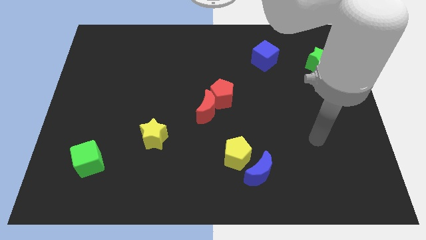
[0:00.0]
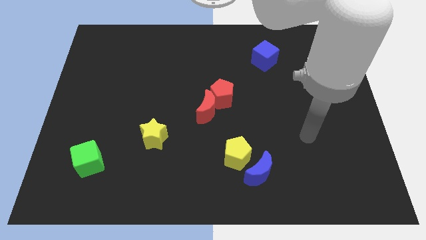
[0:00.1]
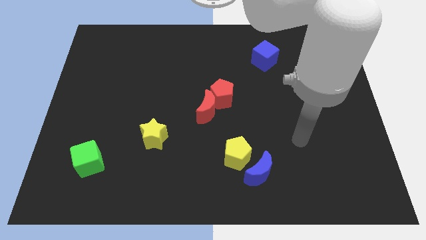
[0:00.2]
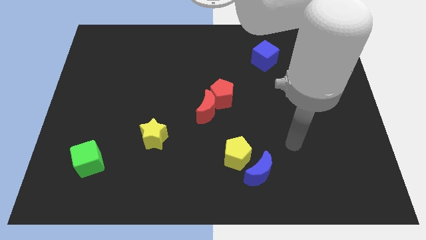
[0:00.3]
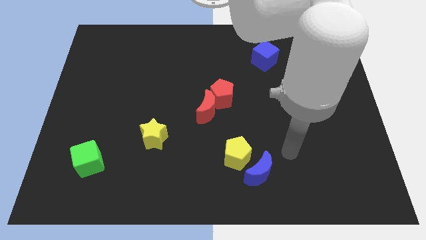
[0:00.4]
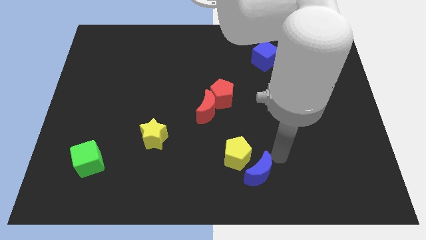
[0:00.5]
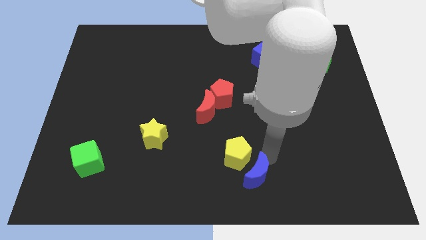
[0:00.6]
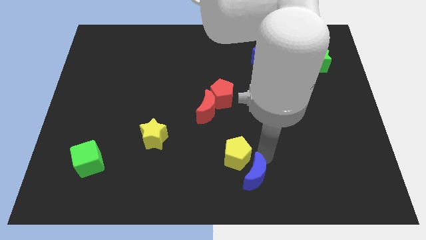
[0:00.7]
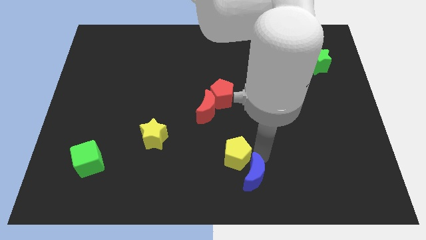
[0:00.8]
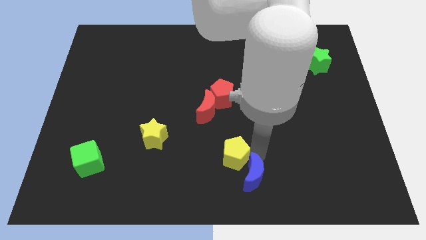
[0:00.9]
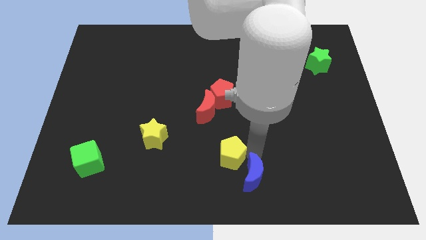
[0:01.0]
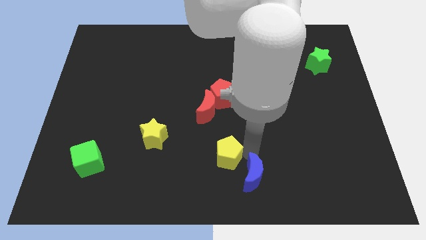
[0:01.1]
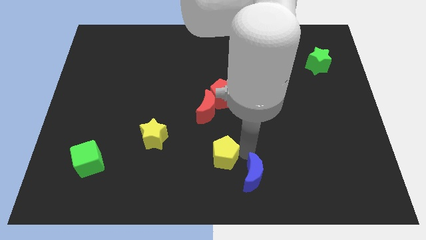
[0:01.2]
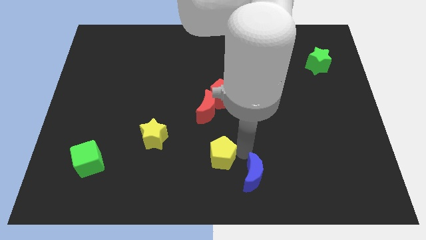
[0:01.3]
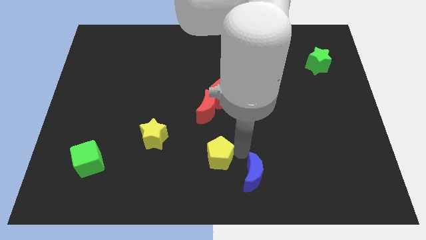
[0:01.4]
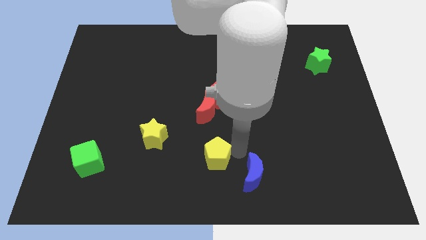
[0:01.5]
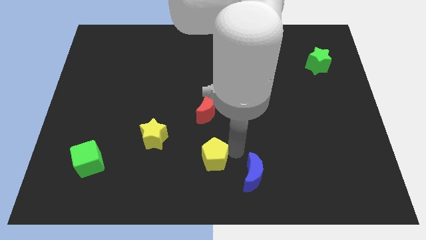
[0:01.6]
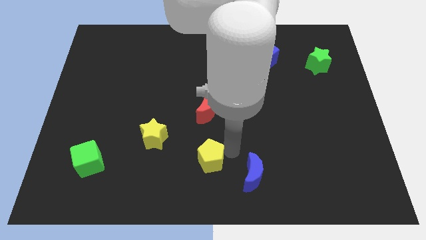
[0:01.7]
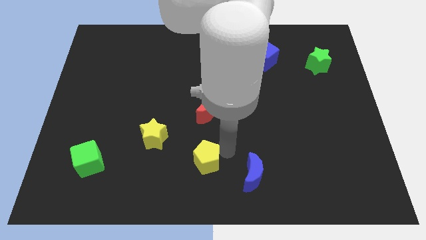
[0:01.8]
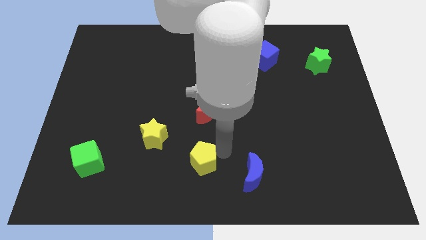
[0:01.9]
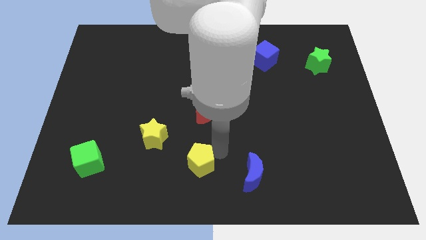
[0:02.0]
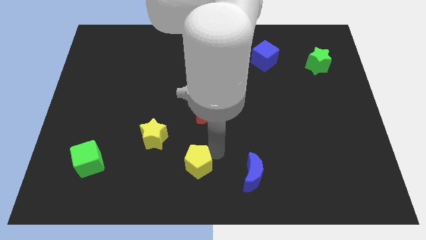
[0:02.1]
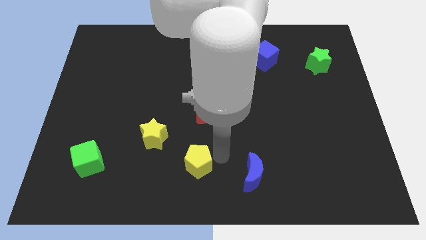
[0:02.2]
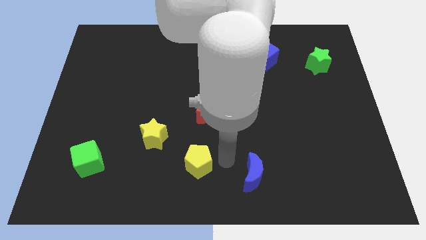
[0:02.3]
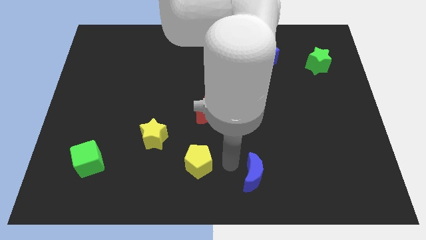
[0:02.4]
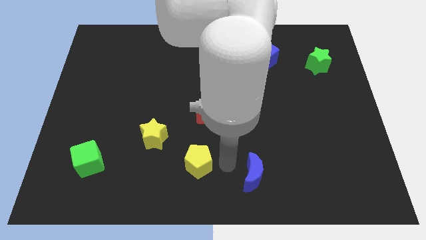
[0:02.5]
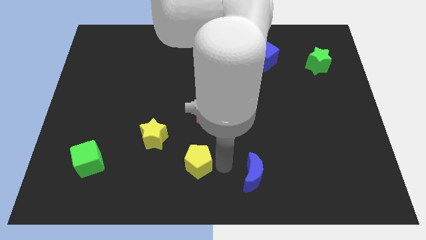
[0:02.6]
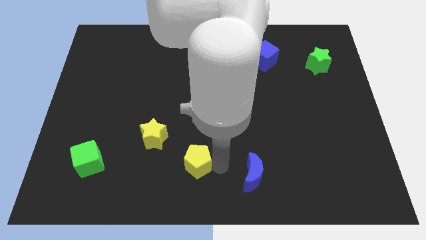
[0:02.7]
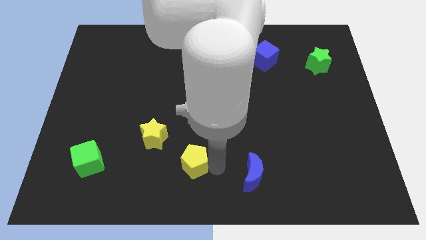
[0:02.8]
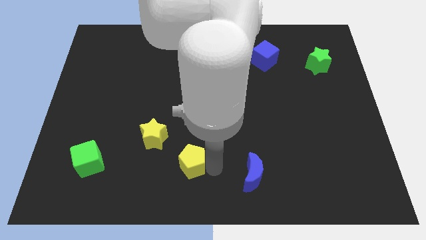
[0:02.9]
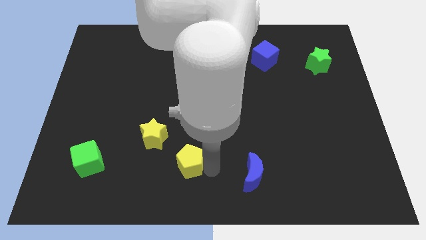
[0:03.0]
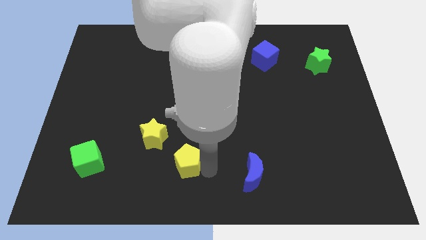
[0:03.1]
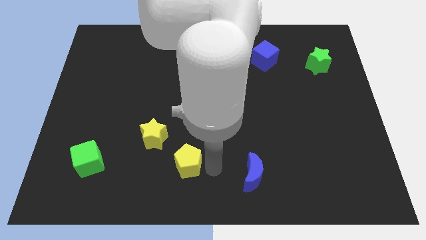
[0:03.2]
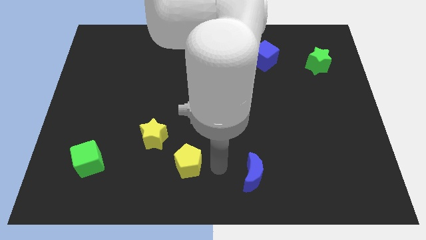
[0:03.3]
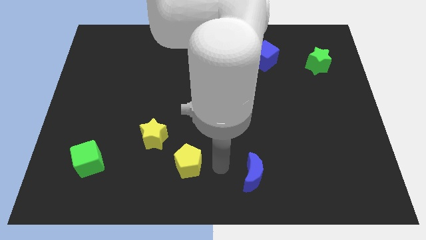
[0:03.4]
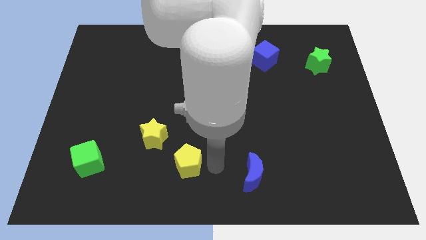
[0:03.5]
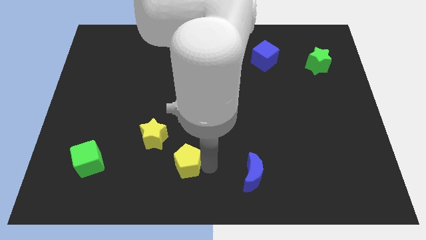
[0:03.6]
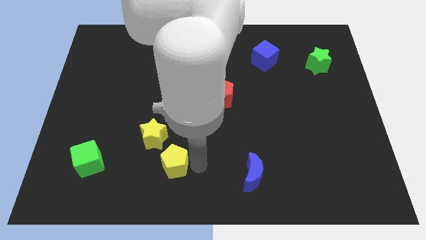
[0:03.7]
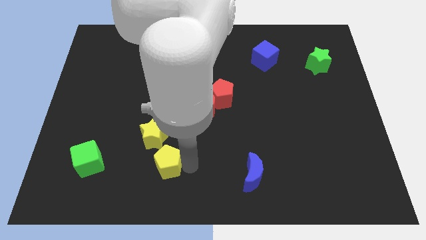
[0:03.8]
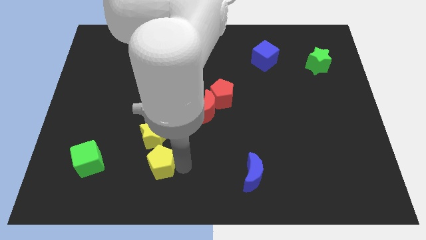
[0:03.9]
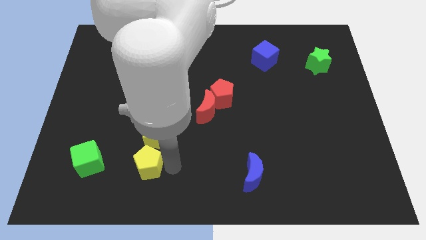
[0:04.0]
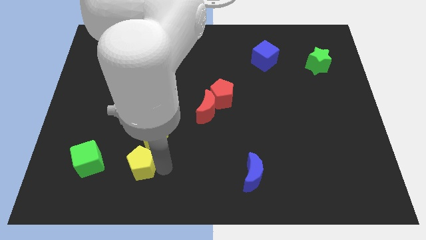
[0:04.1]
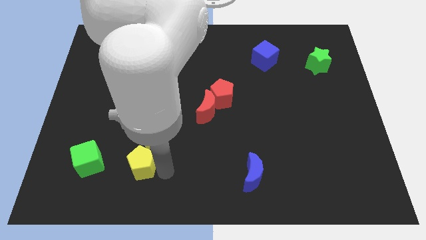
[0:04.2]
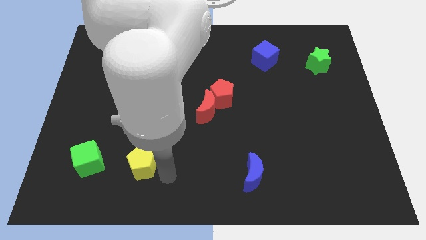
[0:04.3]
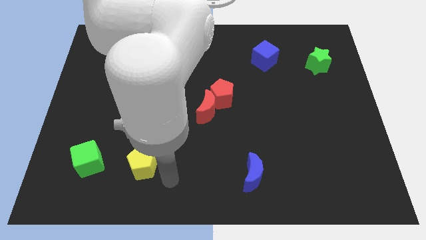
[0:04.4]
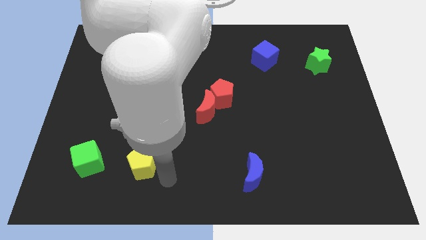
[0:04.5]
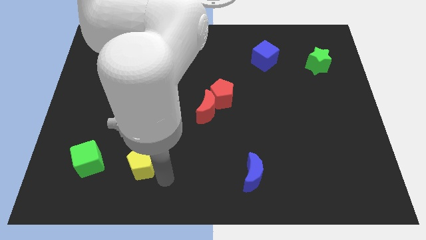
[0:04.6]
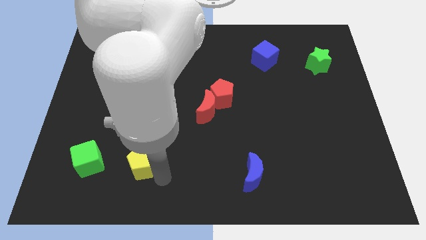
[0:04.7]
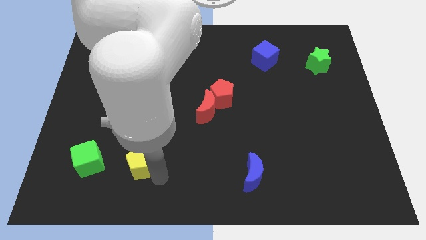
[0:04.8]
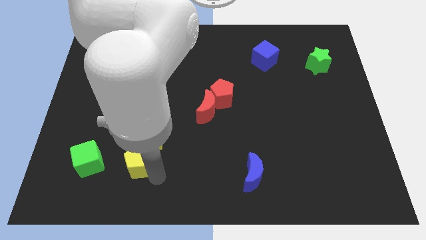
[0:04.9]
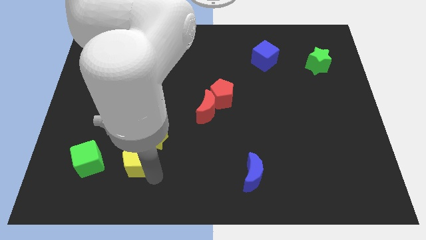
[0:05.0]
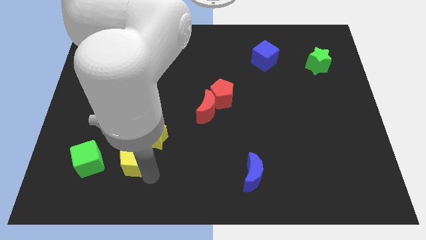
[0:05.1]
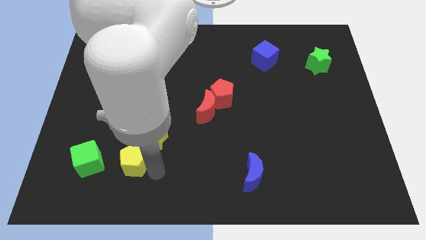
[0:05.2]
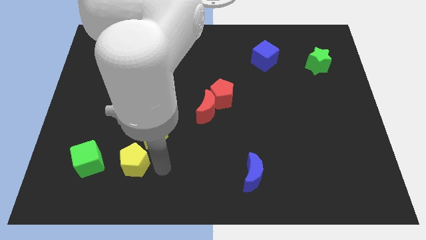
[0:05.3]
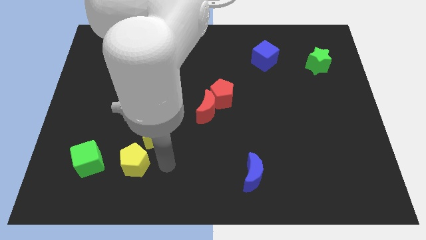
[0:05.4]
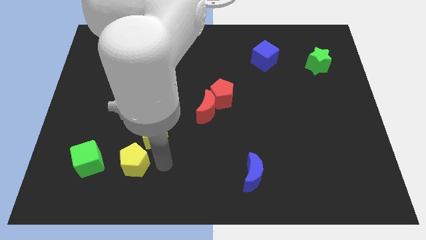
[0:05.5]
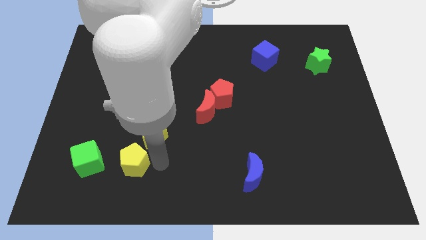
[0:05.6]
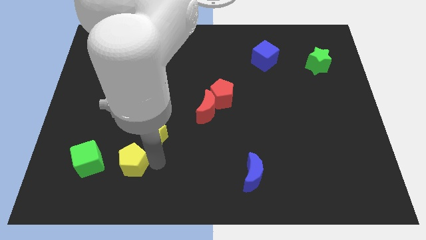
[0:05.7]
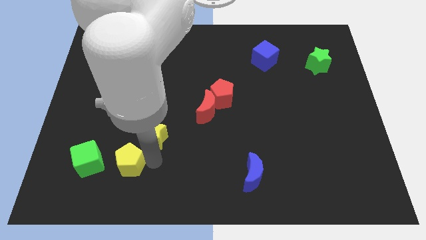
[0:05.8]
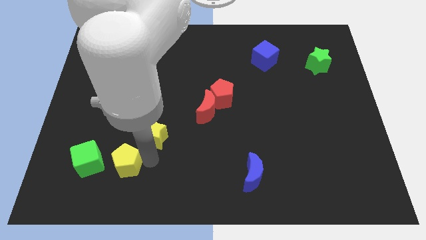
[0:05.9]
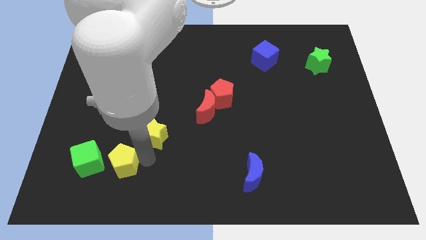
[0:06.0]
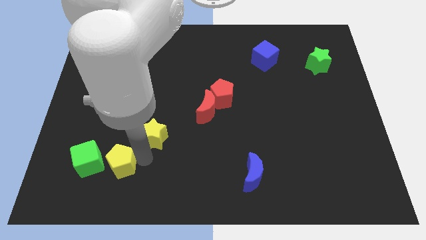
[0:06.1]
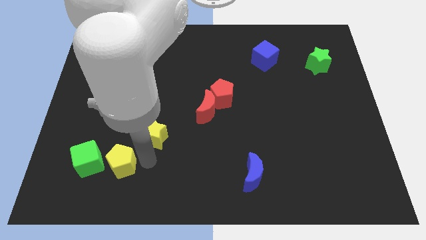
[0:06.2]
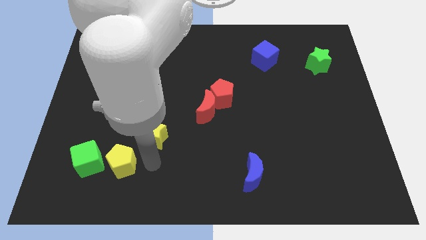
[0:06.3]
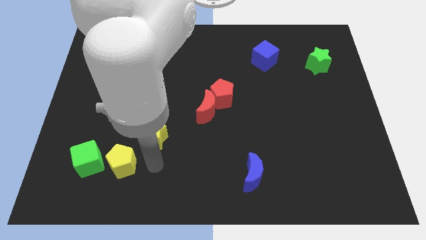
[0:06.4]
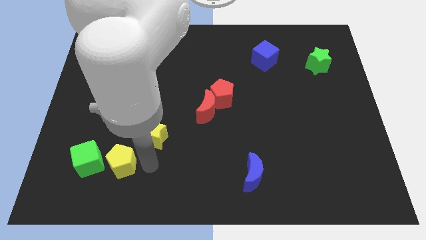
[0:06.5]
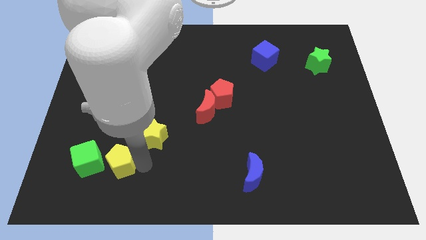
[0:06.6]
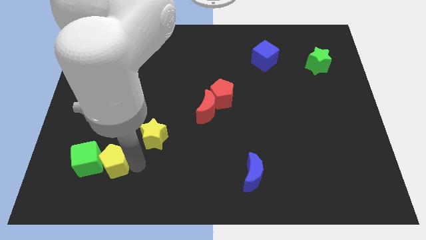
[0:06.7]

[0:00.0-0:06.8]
push the yellow pentagon to the green cube
